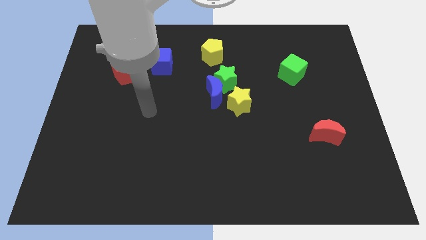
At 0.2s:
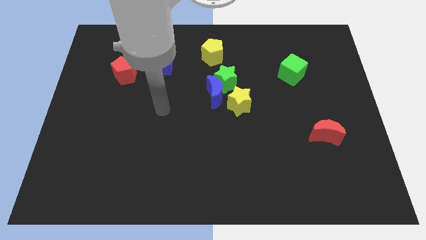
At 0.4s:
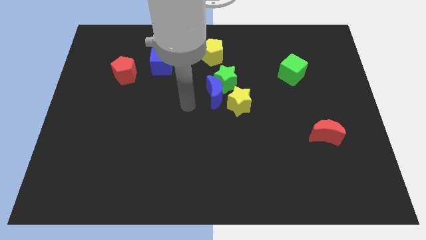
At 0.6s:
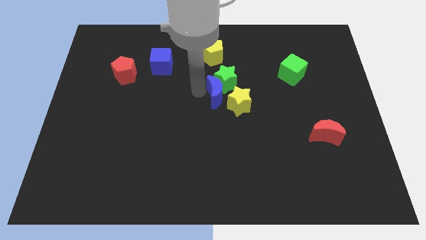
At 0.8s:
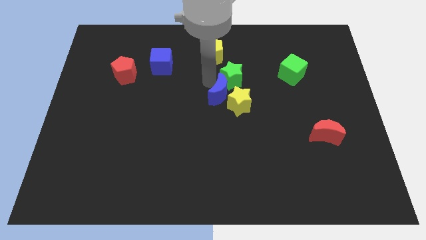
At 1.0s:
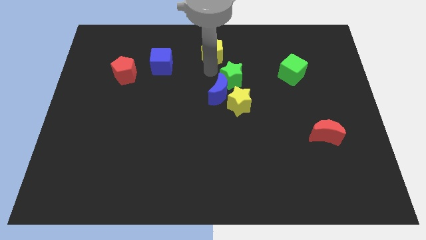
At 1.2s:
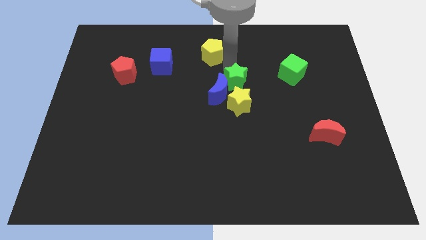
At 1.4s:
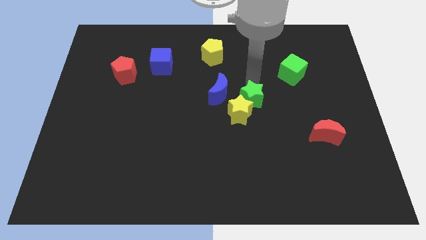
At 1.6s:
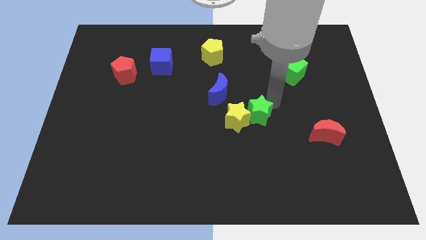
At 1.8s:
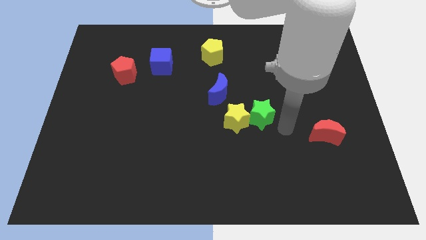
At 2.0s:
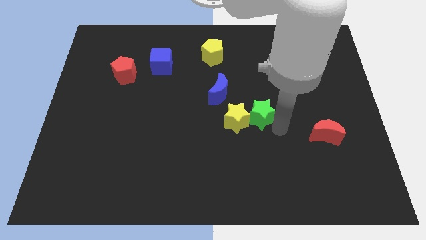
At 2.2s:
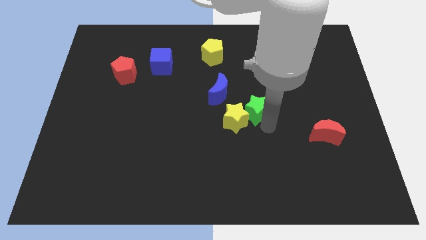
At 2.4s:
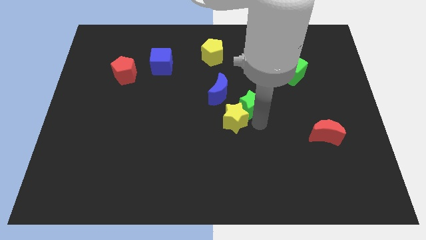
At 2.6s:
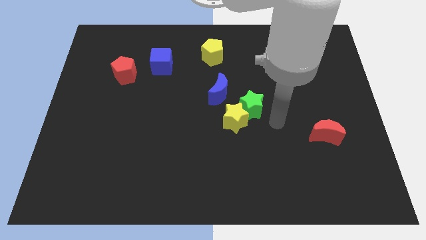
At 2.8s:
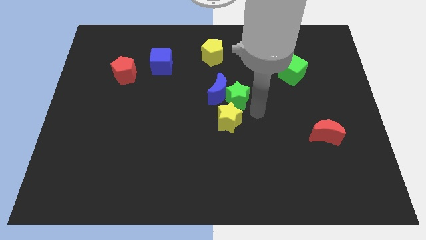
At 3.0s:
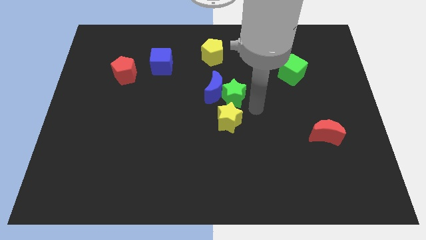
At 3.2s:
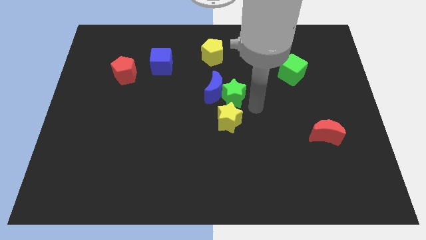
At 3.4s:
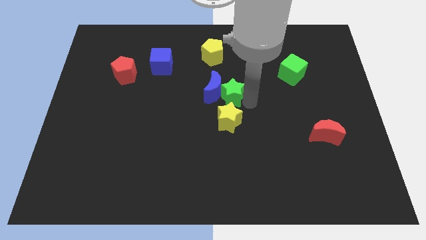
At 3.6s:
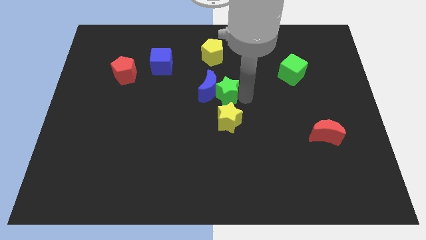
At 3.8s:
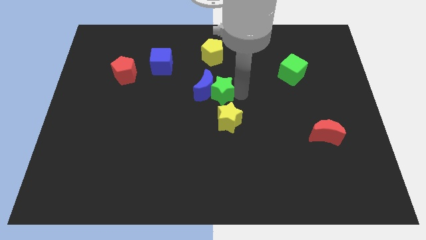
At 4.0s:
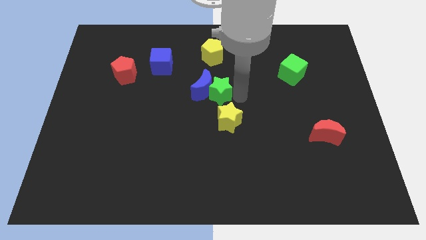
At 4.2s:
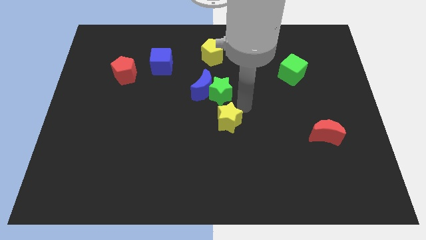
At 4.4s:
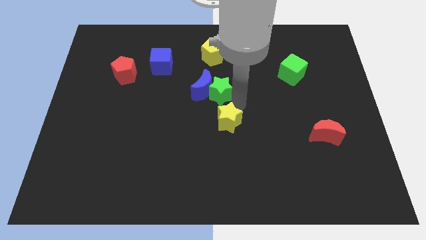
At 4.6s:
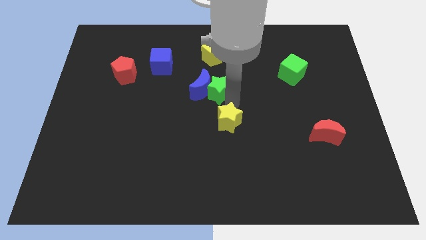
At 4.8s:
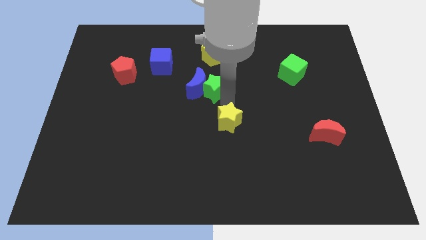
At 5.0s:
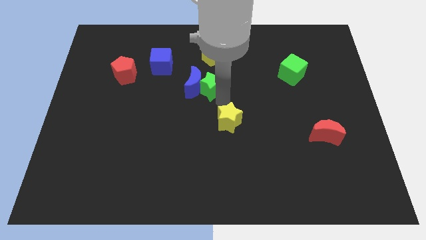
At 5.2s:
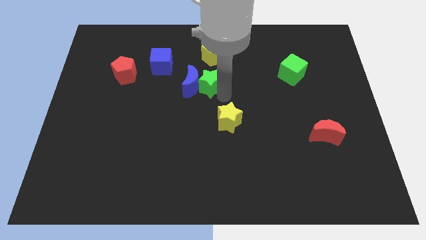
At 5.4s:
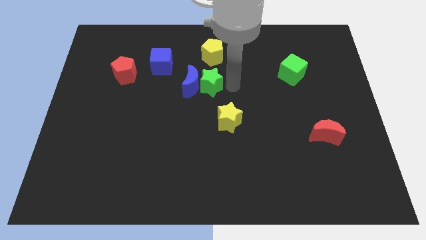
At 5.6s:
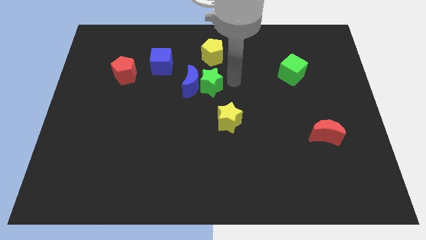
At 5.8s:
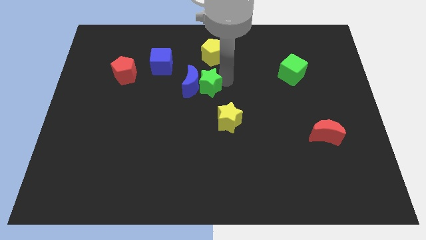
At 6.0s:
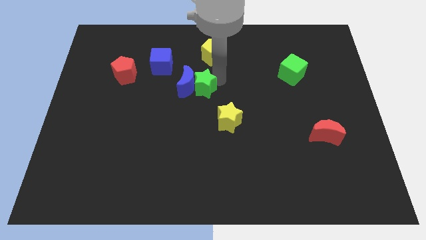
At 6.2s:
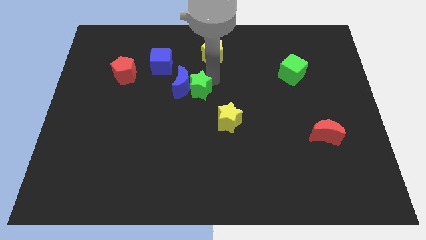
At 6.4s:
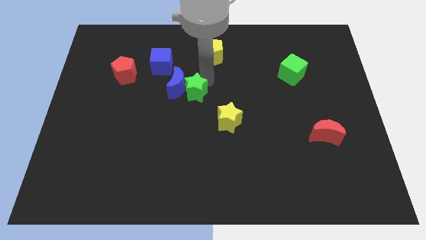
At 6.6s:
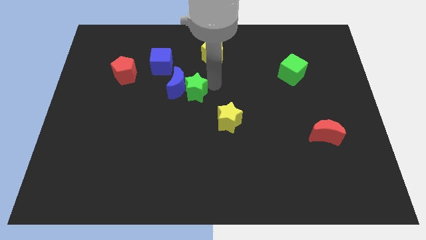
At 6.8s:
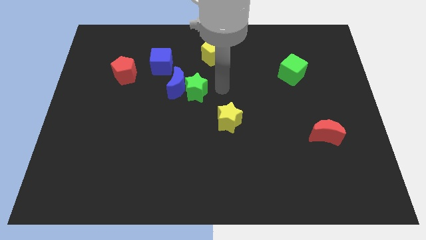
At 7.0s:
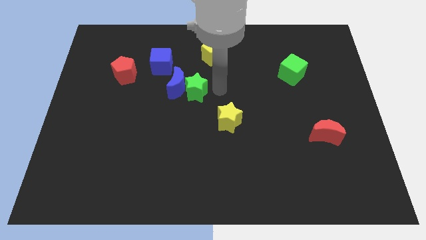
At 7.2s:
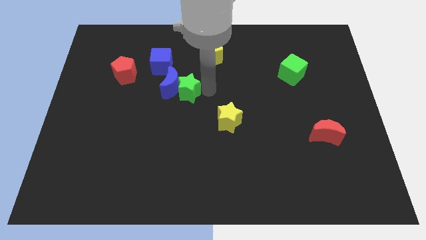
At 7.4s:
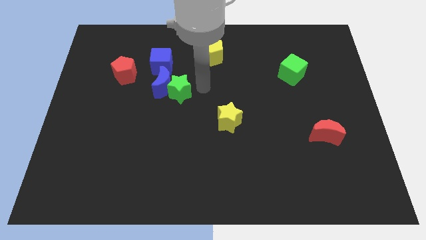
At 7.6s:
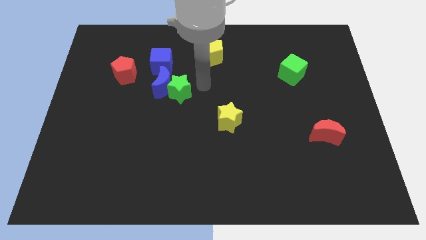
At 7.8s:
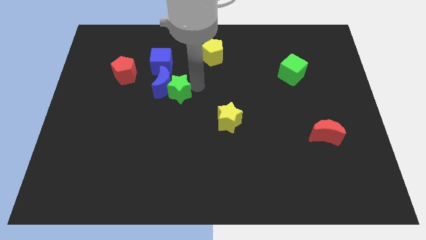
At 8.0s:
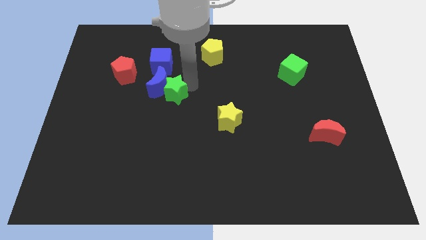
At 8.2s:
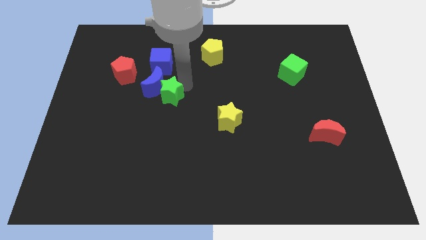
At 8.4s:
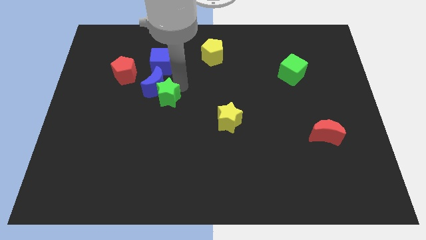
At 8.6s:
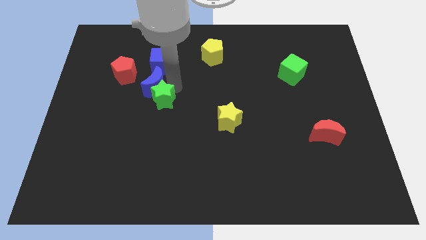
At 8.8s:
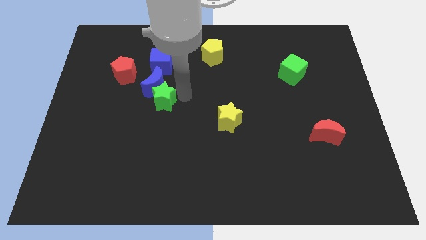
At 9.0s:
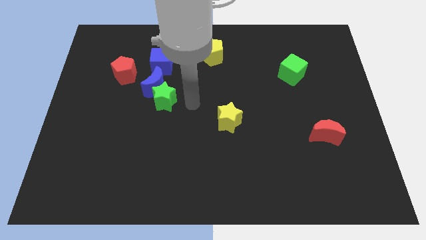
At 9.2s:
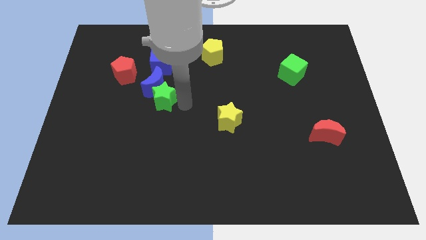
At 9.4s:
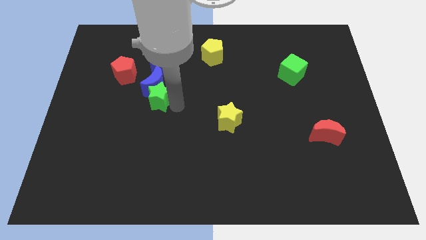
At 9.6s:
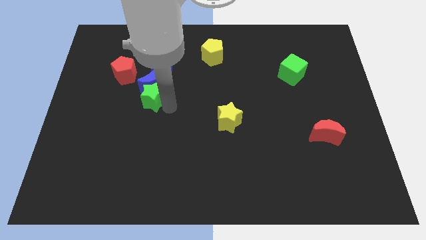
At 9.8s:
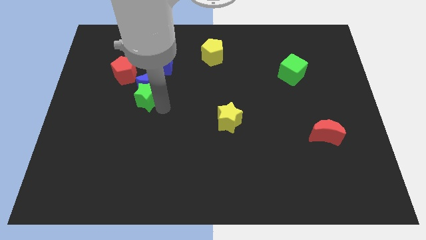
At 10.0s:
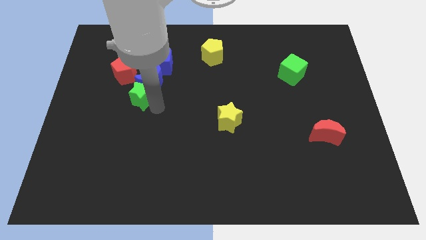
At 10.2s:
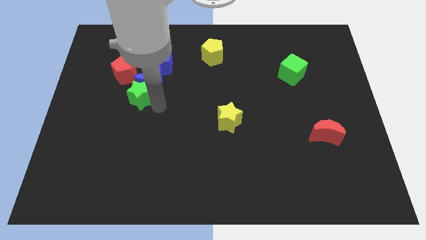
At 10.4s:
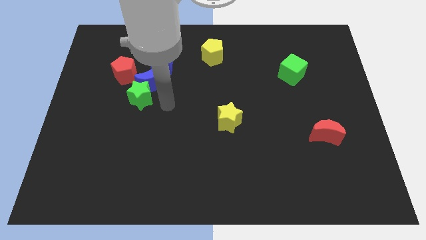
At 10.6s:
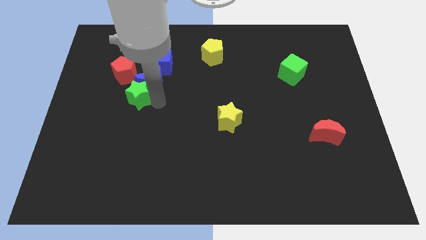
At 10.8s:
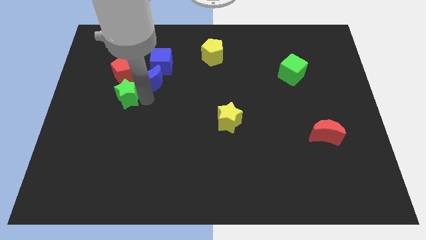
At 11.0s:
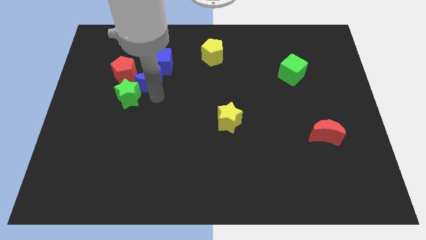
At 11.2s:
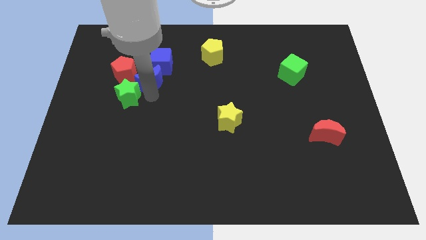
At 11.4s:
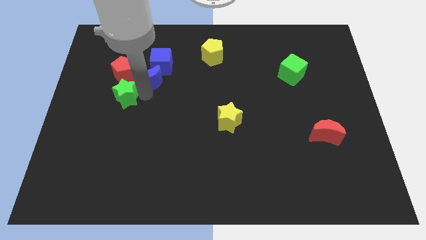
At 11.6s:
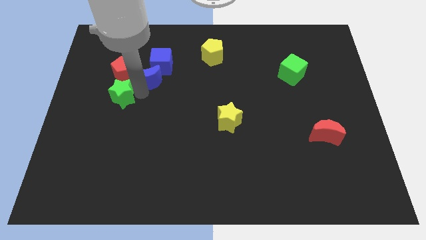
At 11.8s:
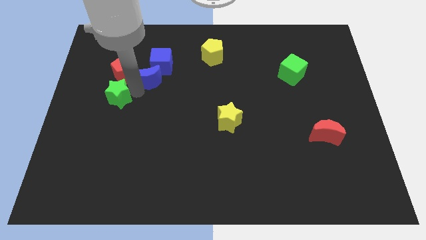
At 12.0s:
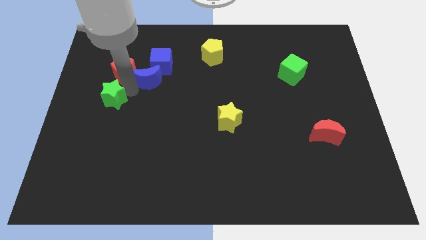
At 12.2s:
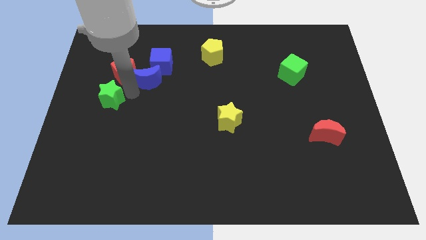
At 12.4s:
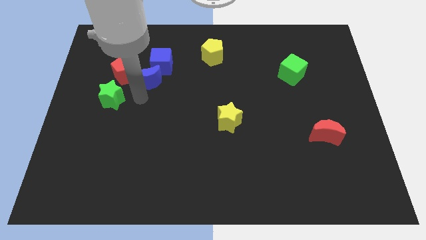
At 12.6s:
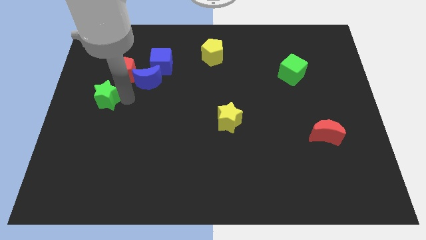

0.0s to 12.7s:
slide the green star to the left side
